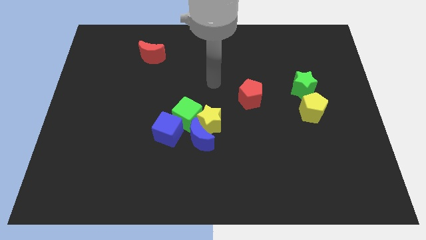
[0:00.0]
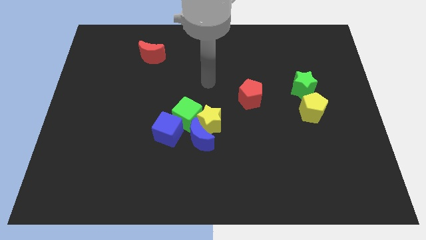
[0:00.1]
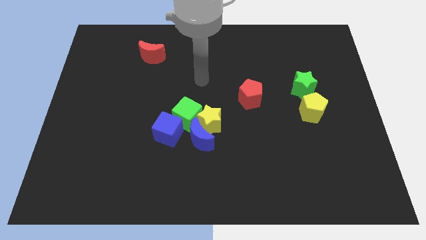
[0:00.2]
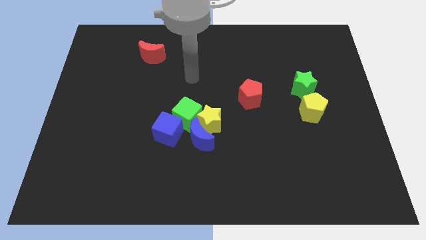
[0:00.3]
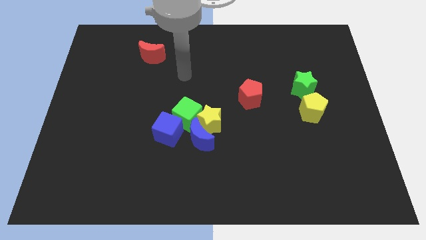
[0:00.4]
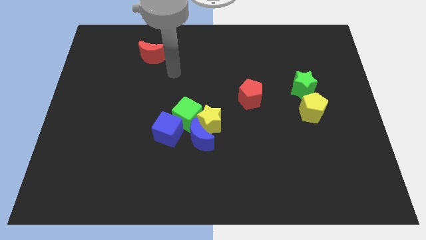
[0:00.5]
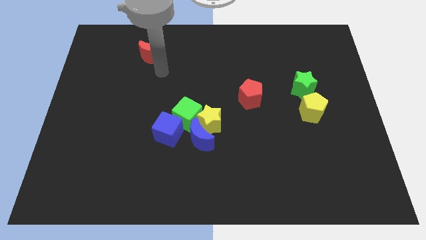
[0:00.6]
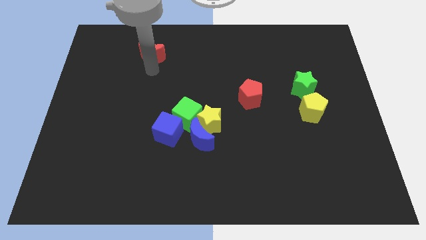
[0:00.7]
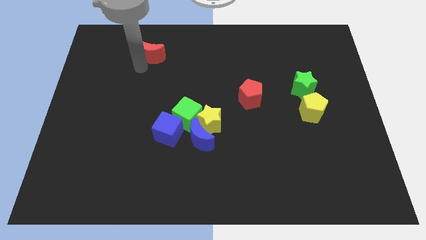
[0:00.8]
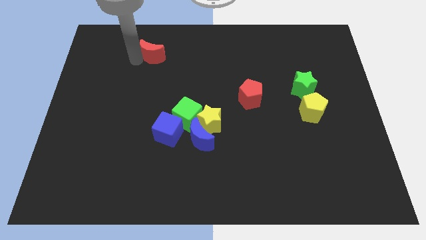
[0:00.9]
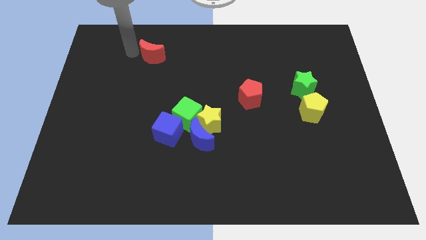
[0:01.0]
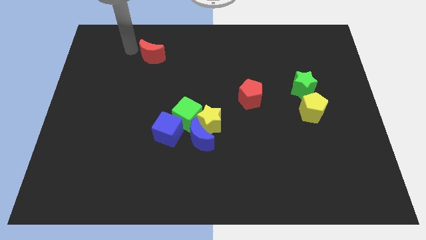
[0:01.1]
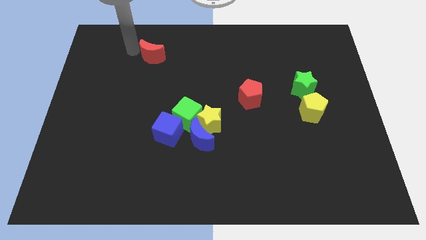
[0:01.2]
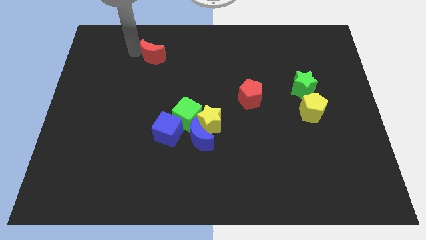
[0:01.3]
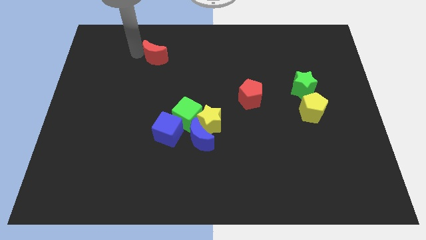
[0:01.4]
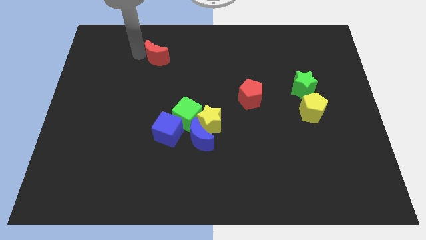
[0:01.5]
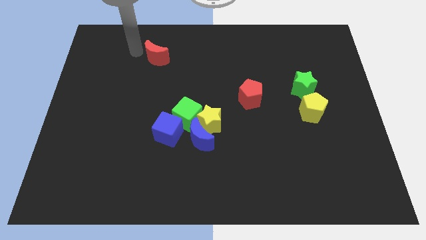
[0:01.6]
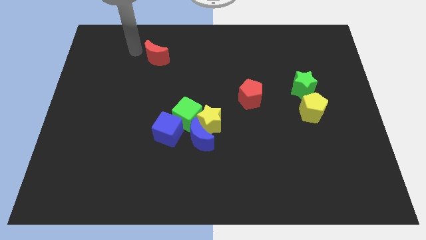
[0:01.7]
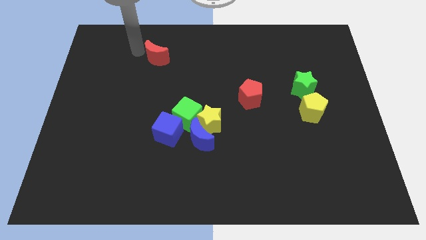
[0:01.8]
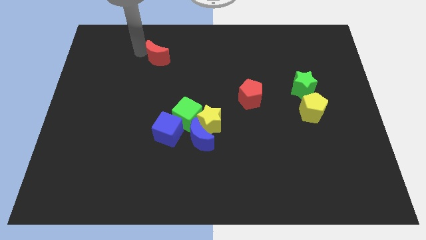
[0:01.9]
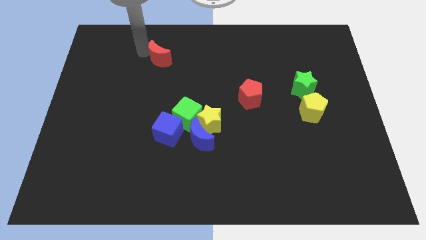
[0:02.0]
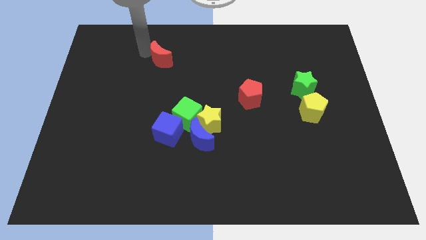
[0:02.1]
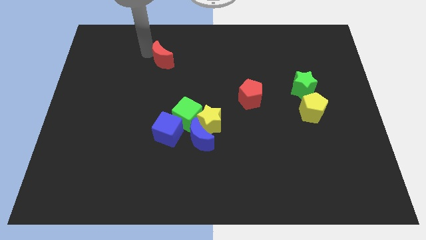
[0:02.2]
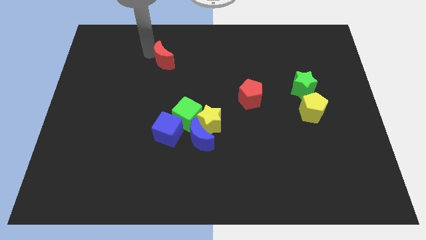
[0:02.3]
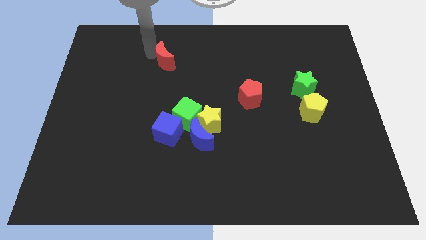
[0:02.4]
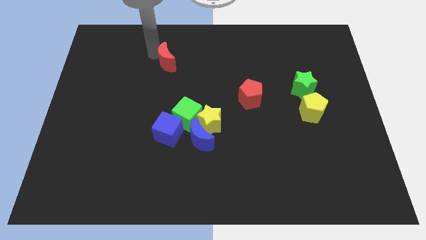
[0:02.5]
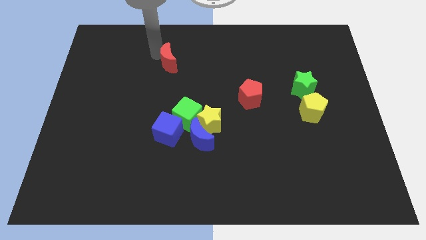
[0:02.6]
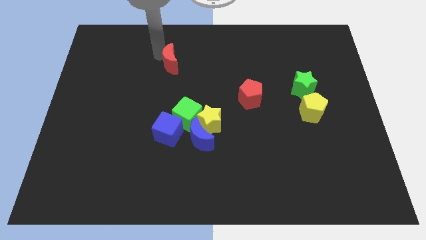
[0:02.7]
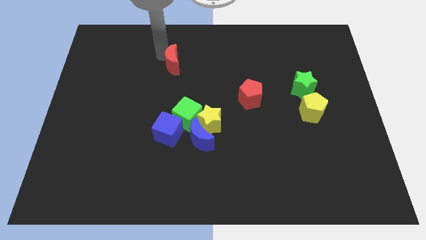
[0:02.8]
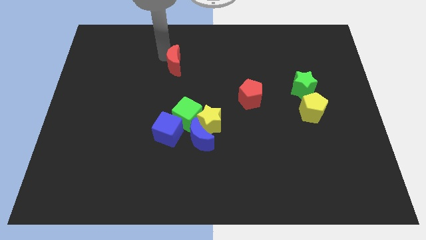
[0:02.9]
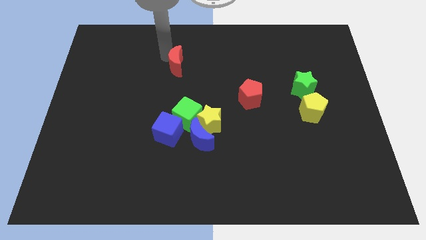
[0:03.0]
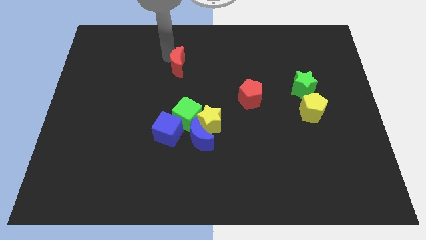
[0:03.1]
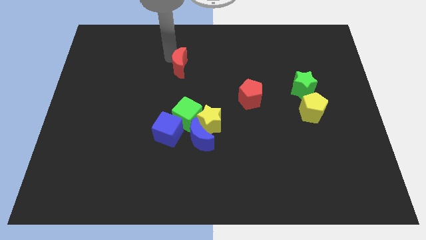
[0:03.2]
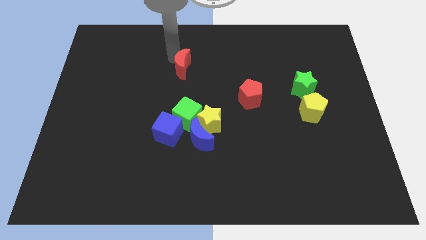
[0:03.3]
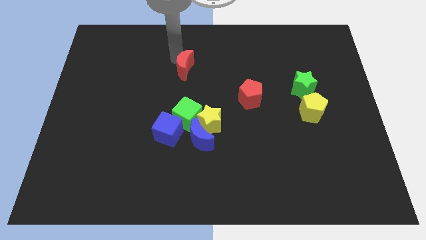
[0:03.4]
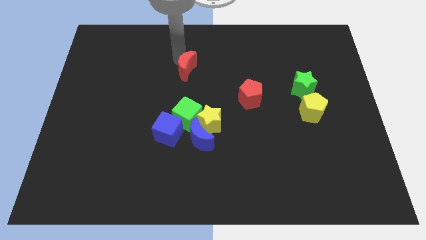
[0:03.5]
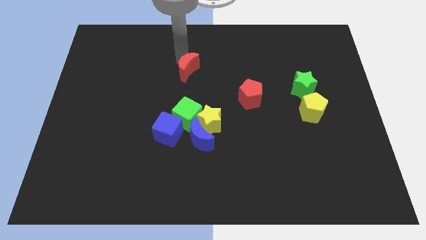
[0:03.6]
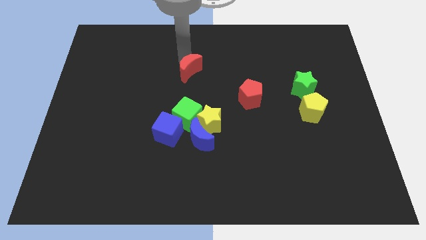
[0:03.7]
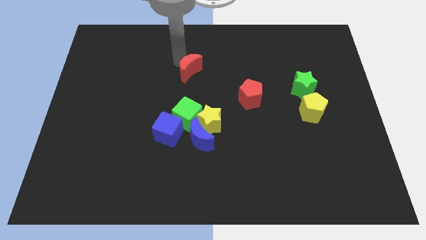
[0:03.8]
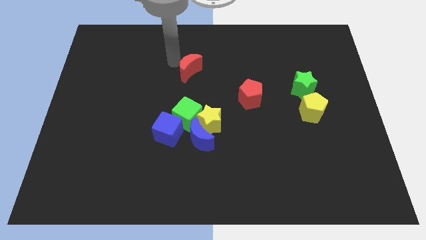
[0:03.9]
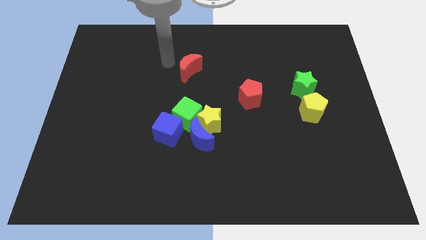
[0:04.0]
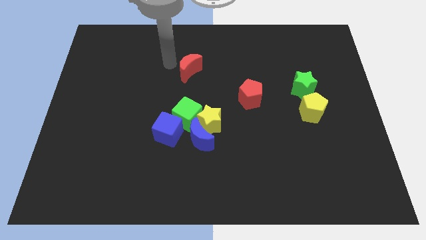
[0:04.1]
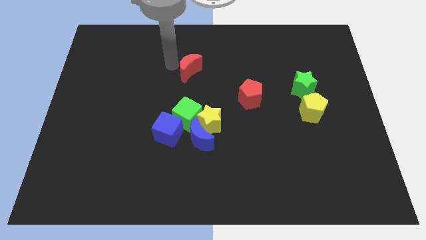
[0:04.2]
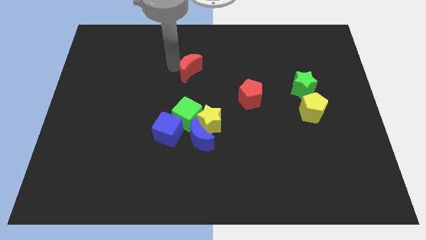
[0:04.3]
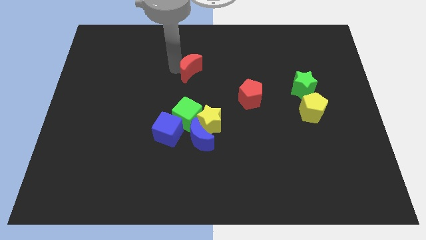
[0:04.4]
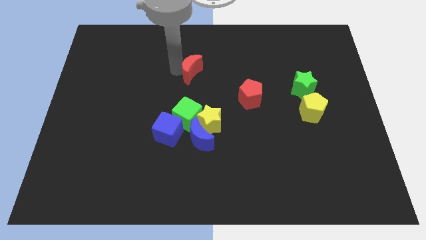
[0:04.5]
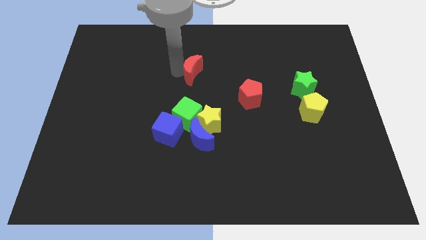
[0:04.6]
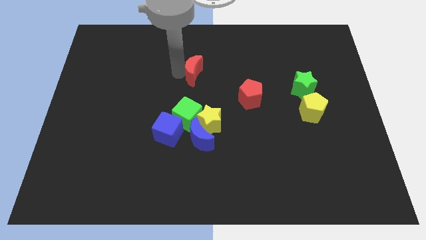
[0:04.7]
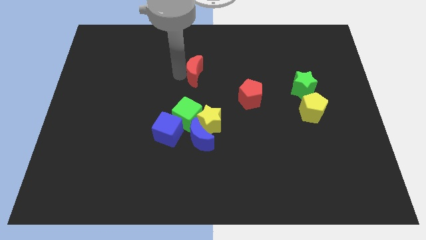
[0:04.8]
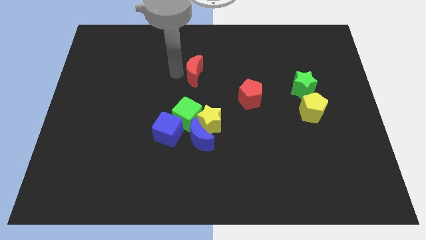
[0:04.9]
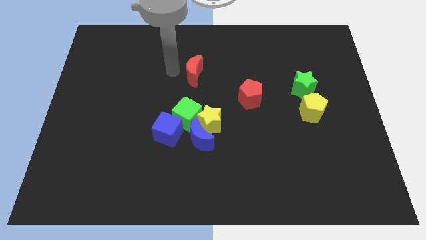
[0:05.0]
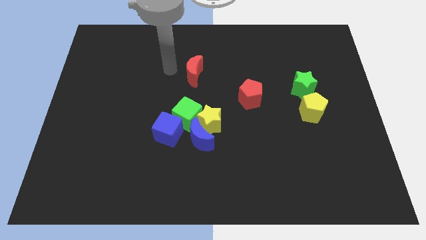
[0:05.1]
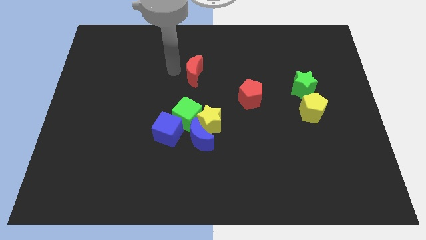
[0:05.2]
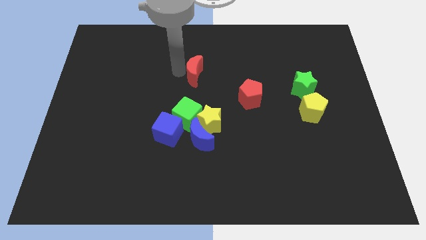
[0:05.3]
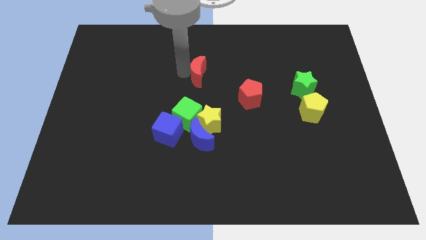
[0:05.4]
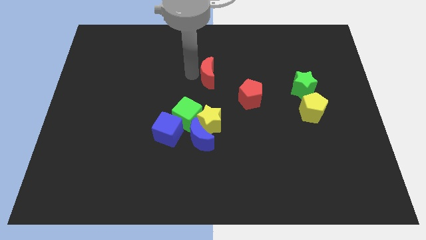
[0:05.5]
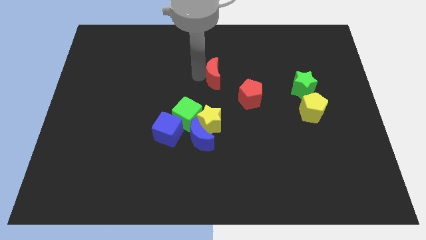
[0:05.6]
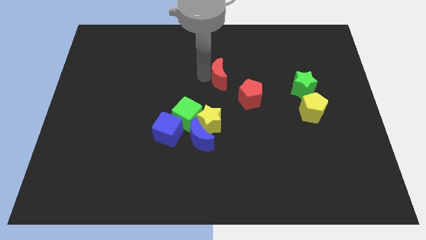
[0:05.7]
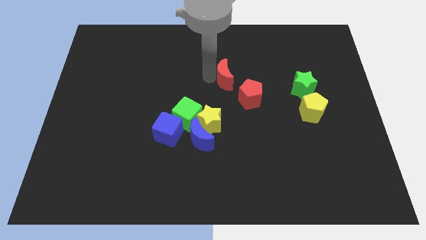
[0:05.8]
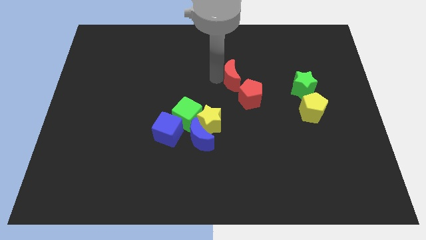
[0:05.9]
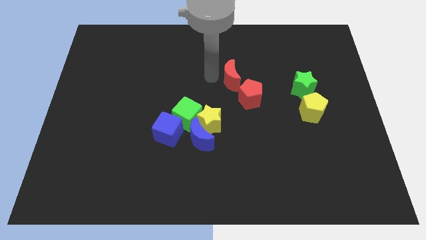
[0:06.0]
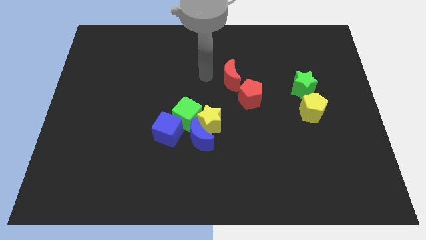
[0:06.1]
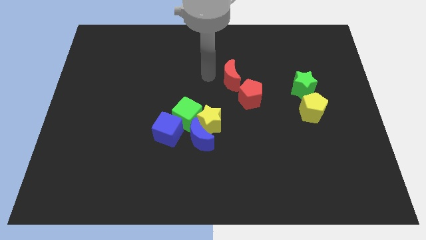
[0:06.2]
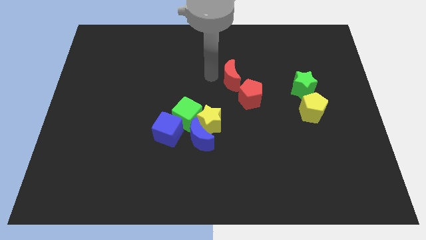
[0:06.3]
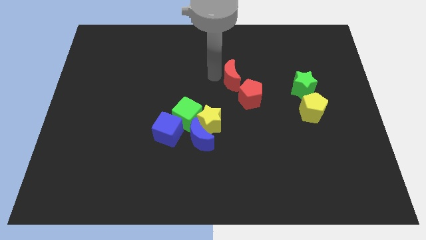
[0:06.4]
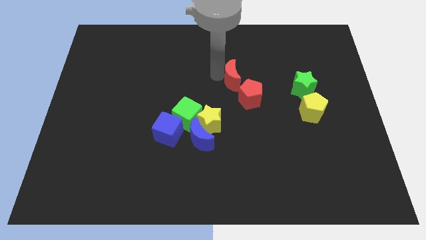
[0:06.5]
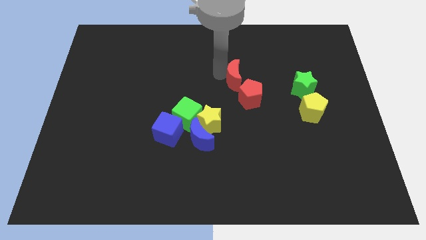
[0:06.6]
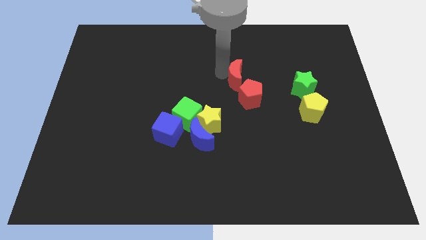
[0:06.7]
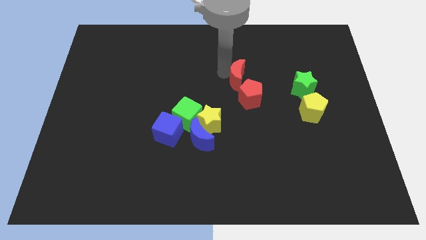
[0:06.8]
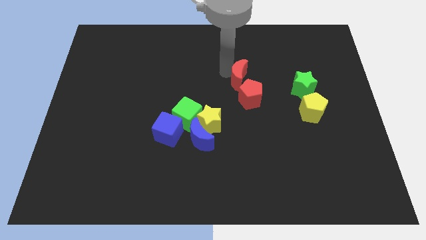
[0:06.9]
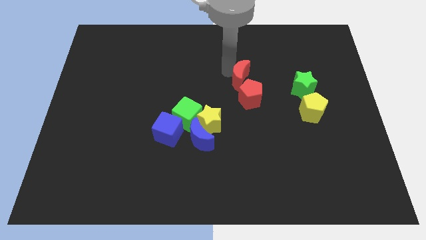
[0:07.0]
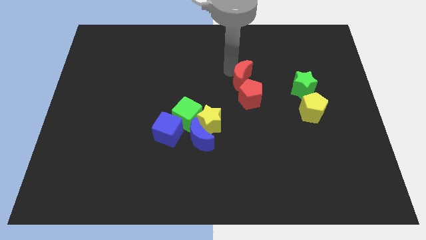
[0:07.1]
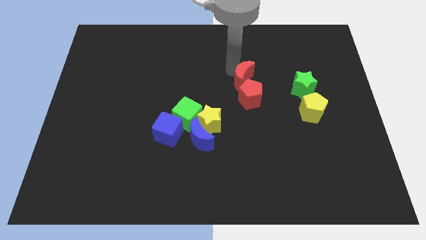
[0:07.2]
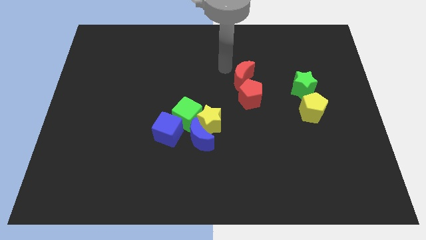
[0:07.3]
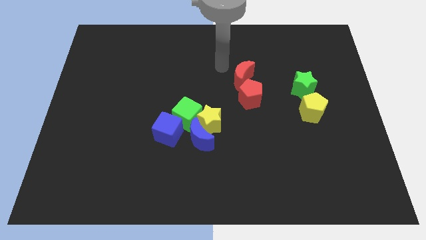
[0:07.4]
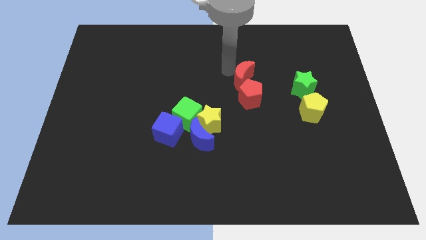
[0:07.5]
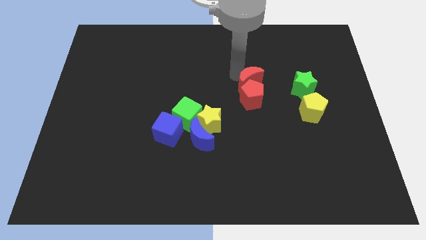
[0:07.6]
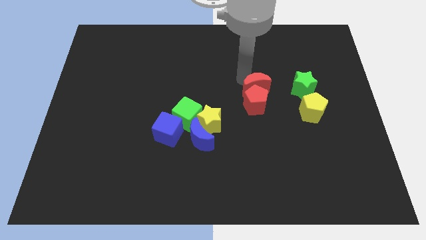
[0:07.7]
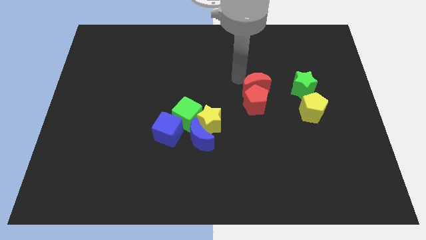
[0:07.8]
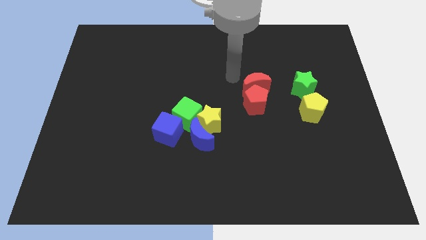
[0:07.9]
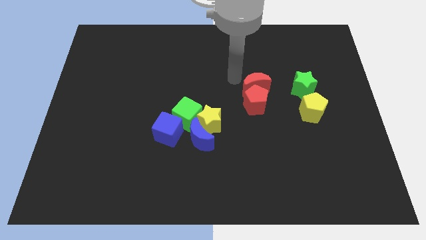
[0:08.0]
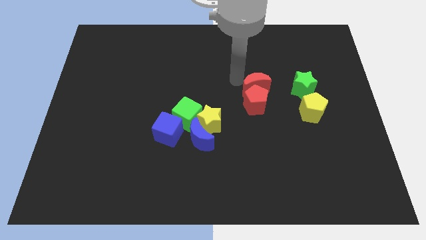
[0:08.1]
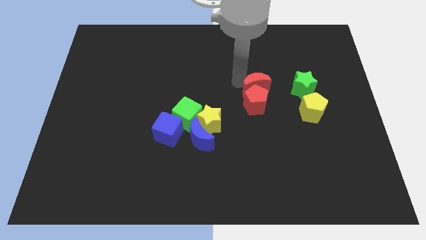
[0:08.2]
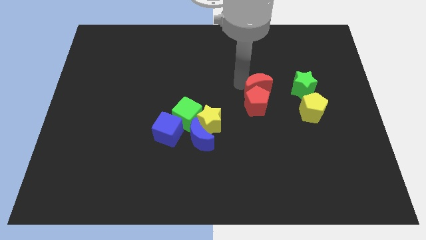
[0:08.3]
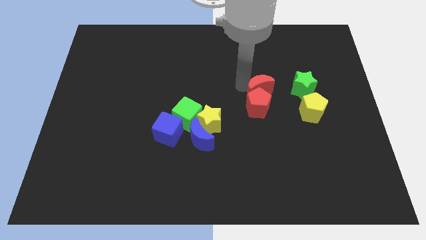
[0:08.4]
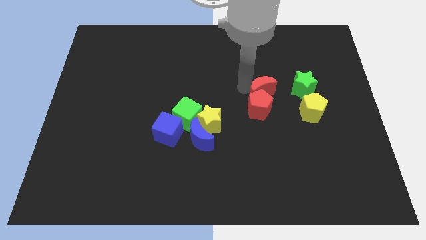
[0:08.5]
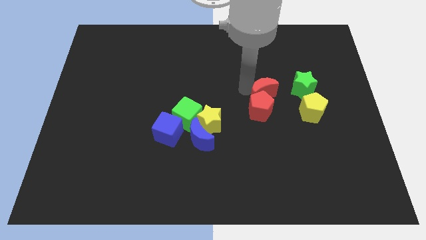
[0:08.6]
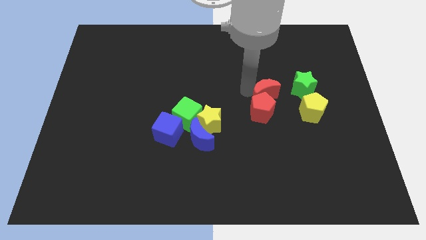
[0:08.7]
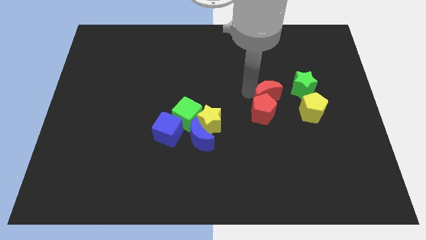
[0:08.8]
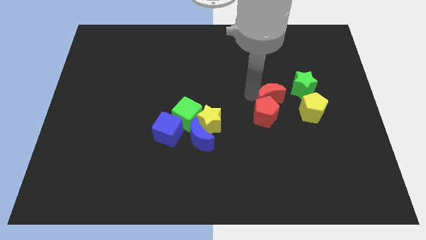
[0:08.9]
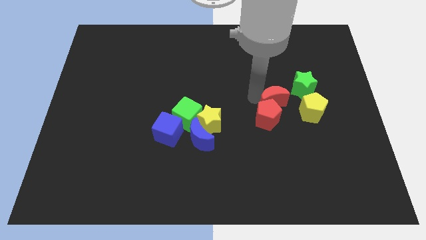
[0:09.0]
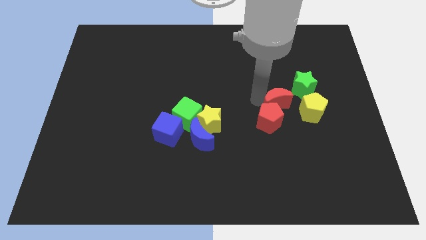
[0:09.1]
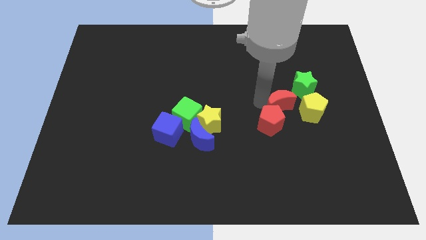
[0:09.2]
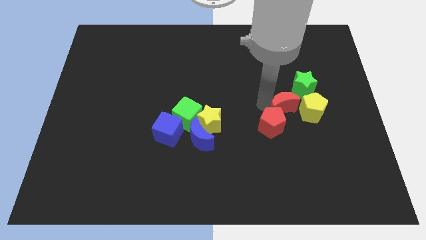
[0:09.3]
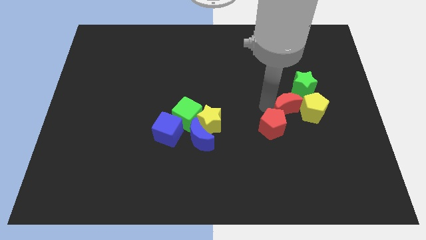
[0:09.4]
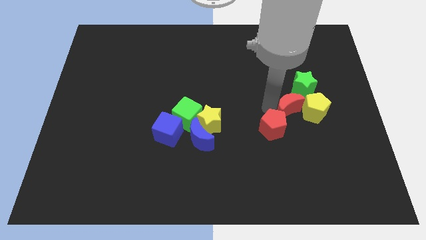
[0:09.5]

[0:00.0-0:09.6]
slide the red moon towards the yellow pentagon
